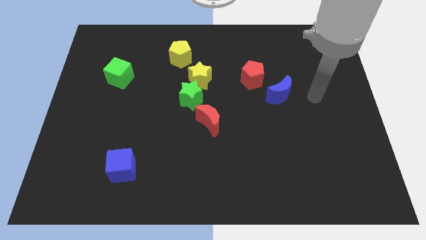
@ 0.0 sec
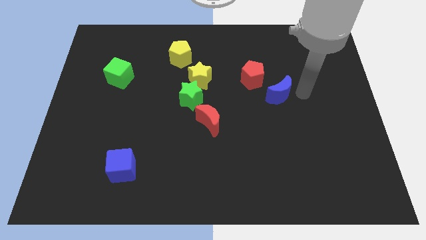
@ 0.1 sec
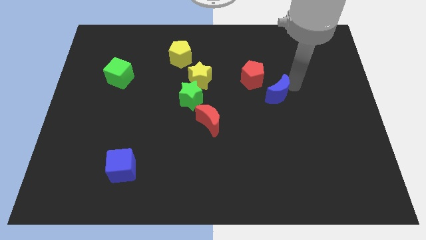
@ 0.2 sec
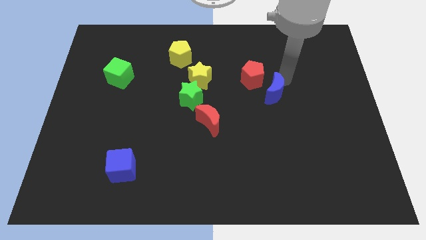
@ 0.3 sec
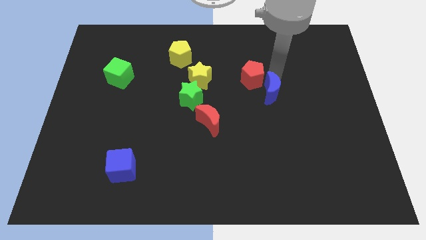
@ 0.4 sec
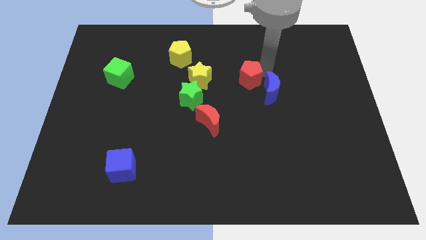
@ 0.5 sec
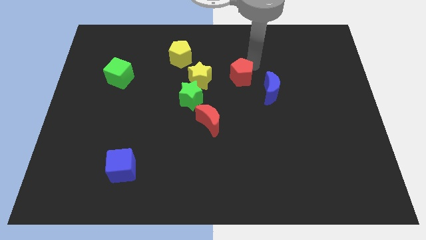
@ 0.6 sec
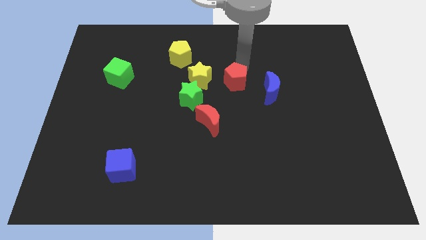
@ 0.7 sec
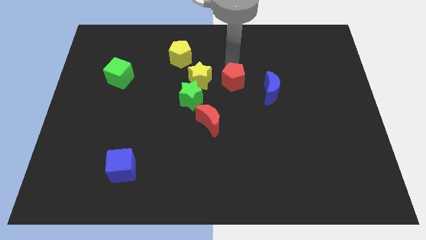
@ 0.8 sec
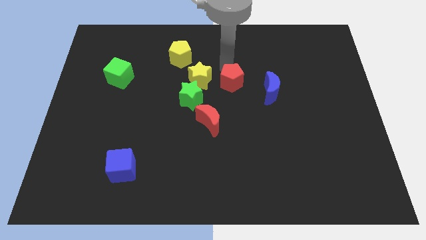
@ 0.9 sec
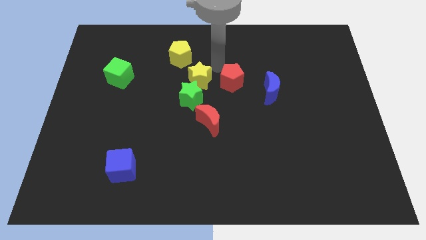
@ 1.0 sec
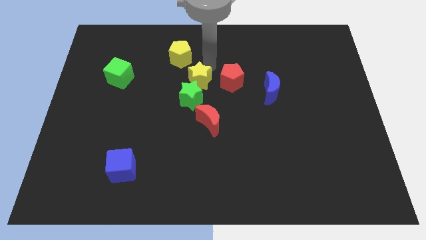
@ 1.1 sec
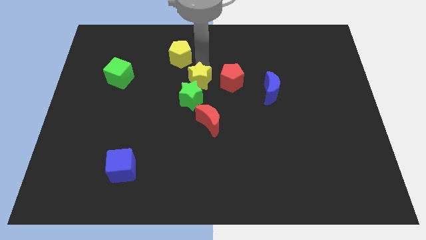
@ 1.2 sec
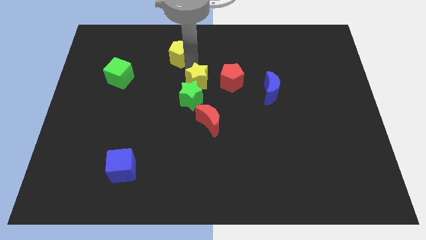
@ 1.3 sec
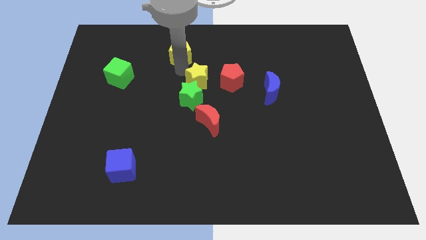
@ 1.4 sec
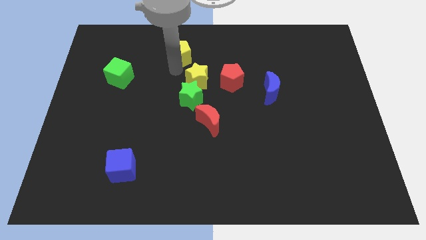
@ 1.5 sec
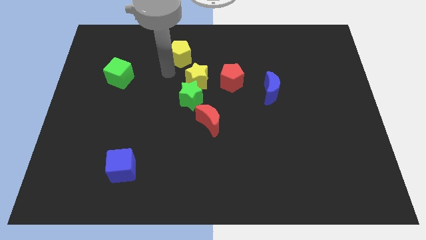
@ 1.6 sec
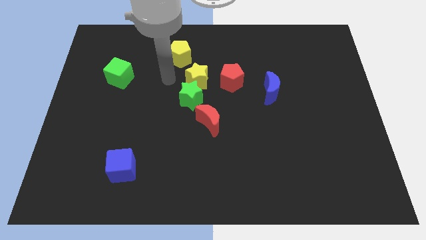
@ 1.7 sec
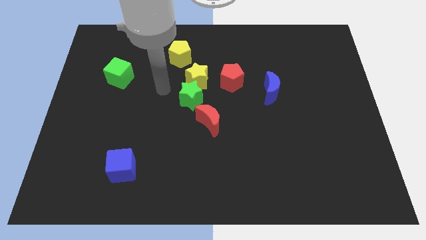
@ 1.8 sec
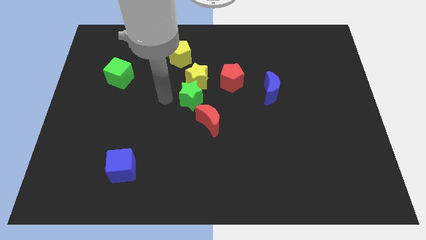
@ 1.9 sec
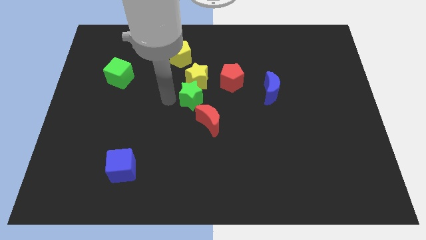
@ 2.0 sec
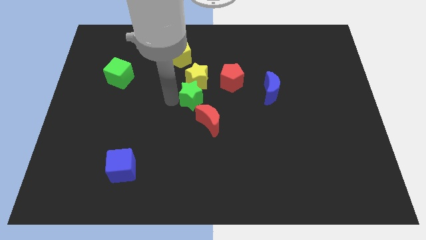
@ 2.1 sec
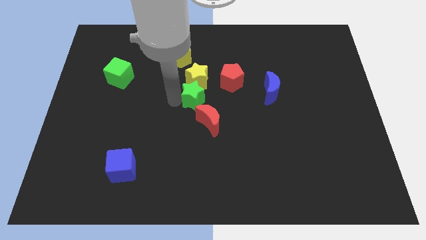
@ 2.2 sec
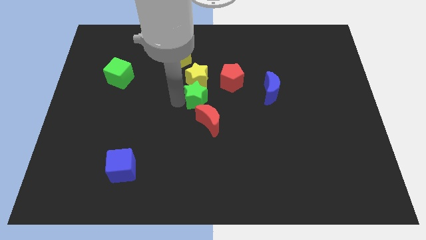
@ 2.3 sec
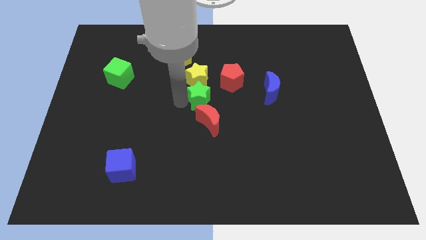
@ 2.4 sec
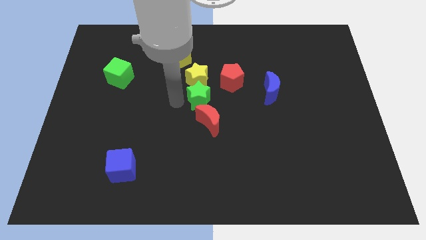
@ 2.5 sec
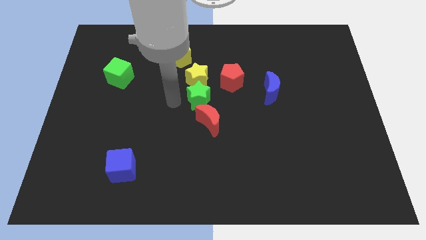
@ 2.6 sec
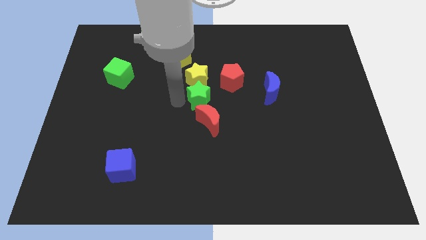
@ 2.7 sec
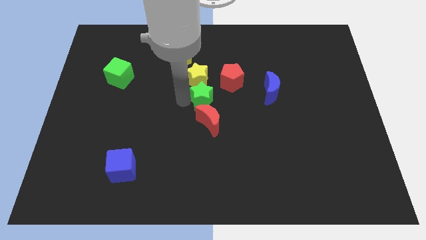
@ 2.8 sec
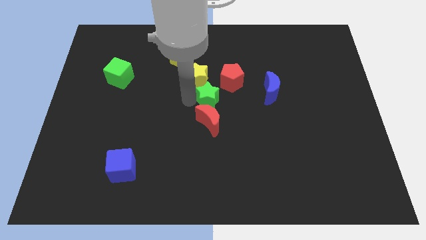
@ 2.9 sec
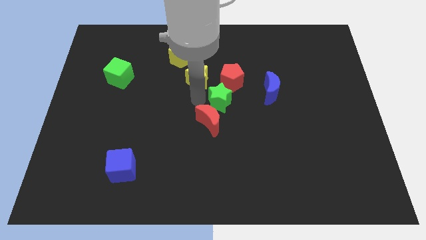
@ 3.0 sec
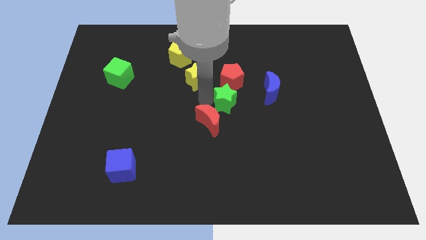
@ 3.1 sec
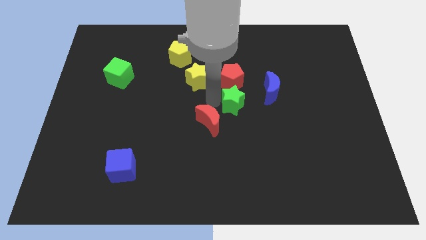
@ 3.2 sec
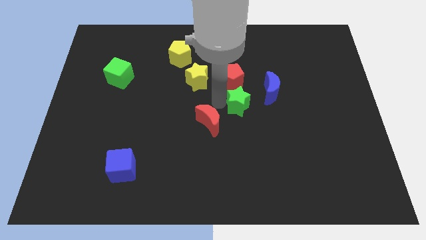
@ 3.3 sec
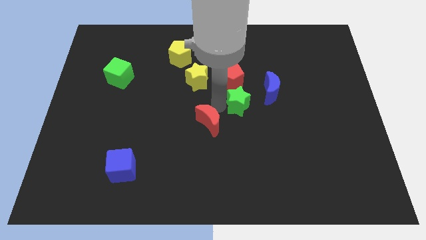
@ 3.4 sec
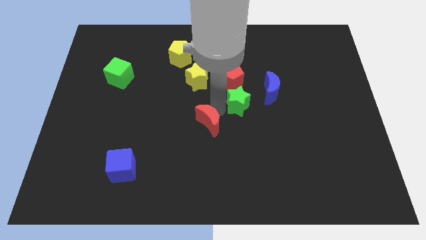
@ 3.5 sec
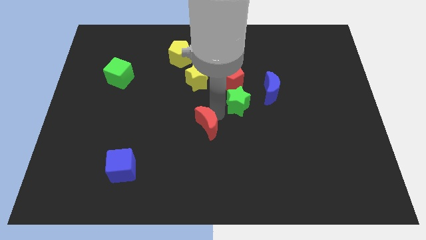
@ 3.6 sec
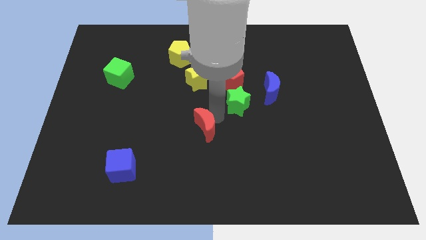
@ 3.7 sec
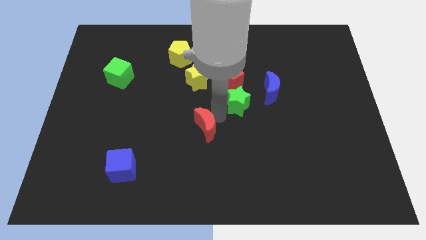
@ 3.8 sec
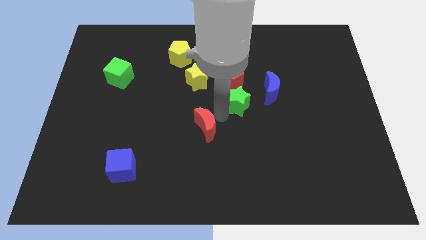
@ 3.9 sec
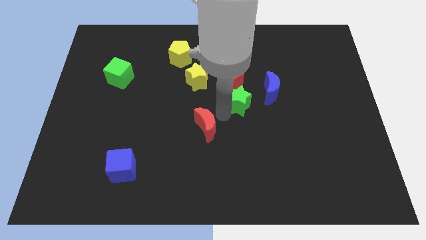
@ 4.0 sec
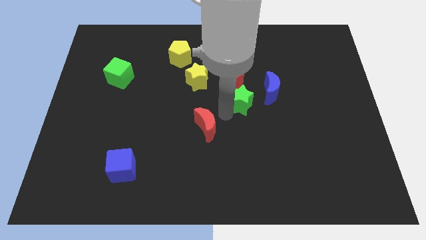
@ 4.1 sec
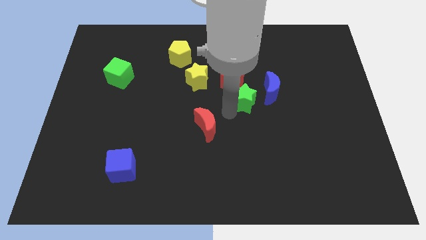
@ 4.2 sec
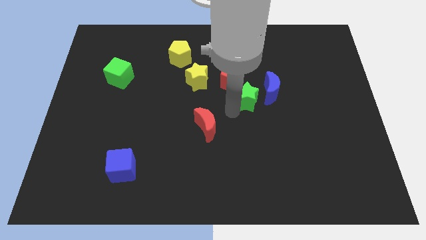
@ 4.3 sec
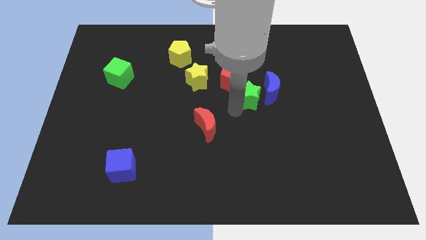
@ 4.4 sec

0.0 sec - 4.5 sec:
push the green star next to the blue moon

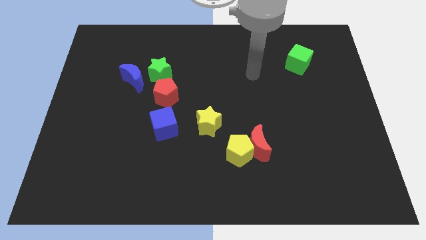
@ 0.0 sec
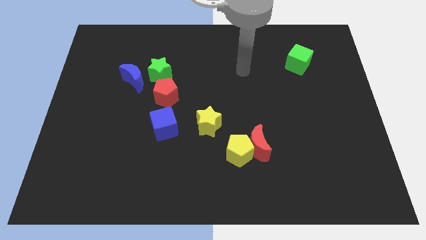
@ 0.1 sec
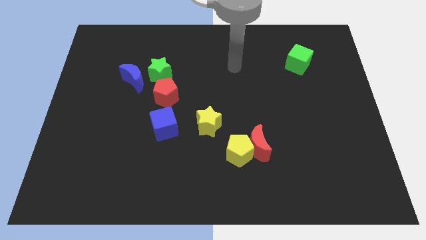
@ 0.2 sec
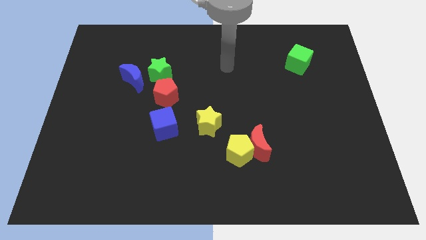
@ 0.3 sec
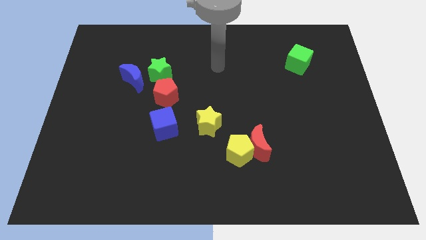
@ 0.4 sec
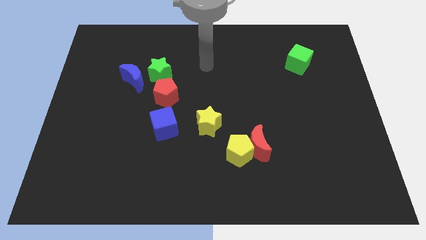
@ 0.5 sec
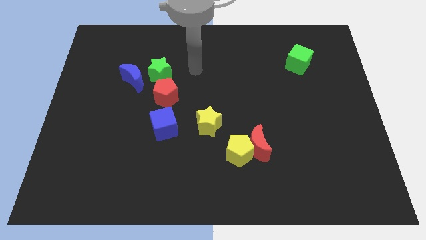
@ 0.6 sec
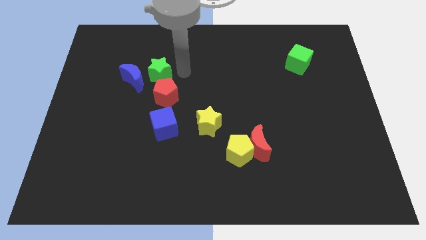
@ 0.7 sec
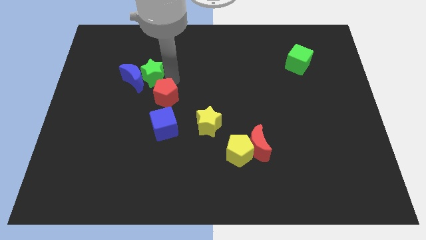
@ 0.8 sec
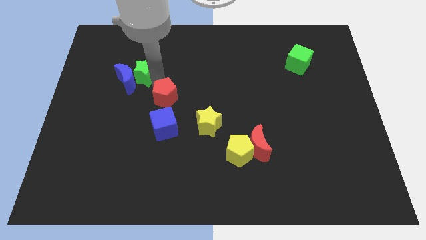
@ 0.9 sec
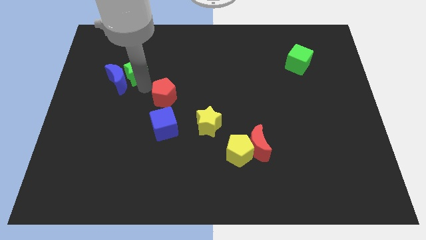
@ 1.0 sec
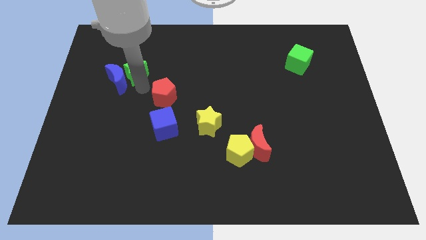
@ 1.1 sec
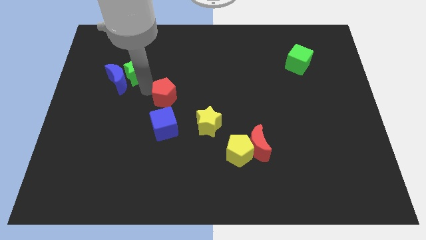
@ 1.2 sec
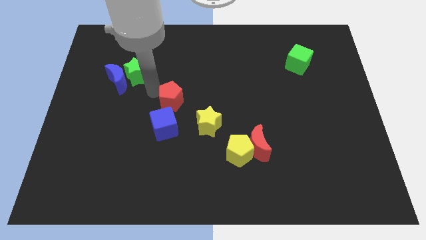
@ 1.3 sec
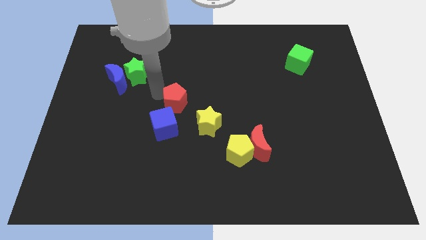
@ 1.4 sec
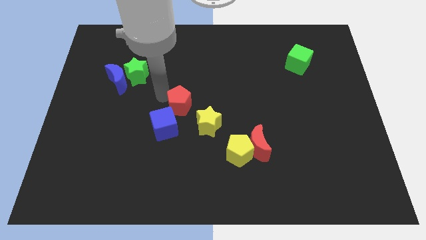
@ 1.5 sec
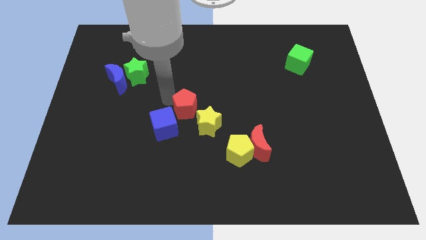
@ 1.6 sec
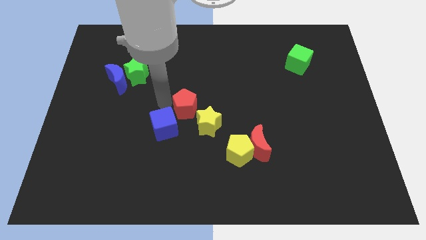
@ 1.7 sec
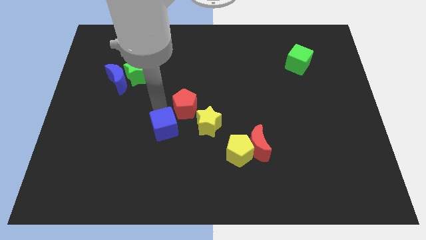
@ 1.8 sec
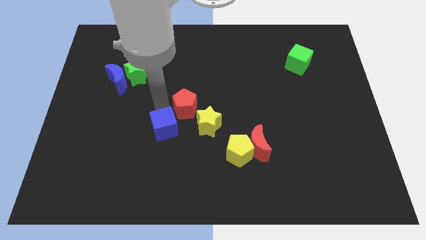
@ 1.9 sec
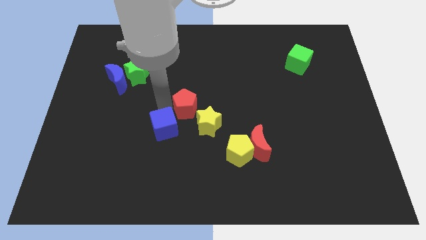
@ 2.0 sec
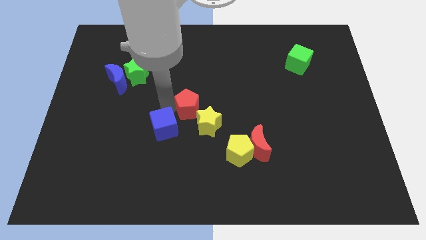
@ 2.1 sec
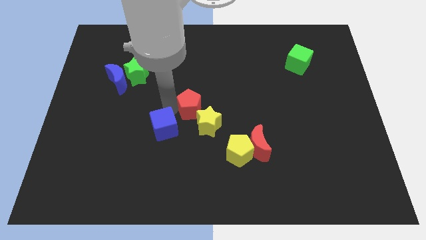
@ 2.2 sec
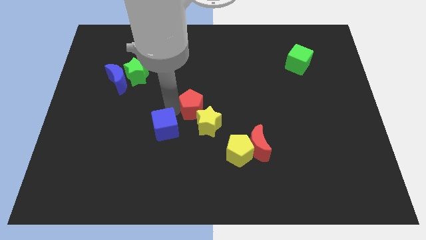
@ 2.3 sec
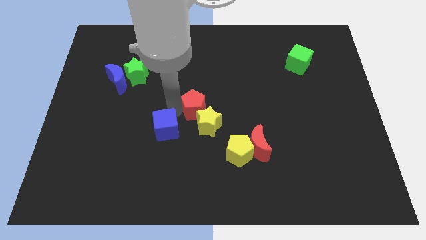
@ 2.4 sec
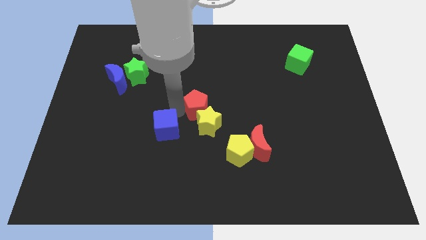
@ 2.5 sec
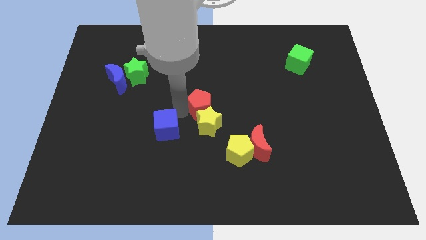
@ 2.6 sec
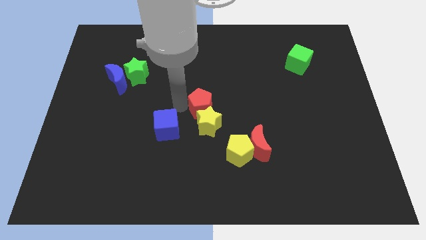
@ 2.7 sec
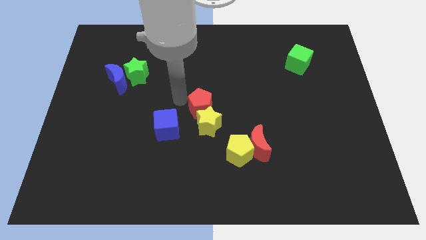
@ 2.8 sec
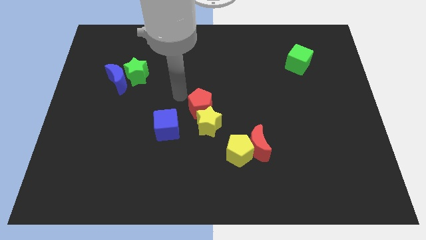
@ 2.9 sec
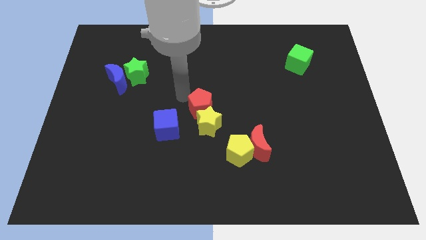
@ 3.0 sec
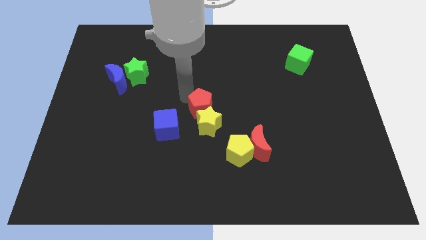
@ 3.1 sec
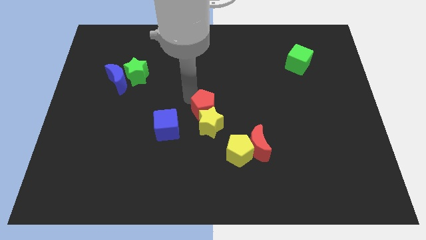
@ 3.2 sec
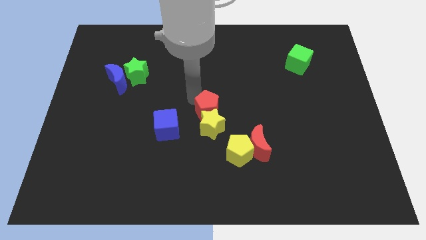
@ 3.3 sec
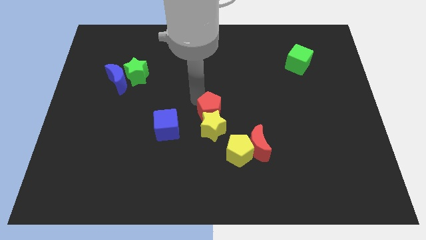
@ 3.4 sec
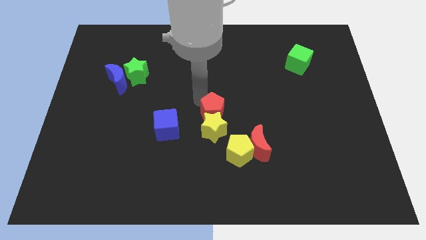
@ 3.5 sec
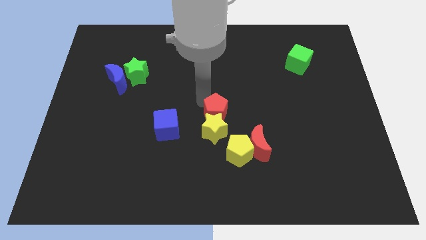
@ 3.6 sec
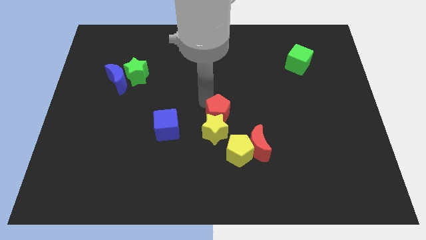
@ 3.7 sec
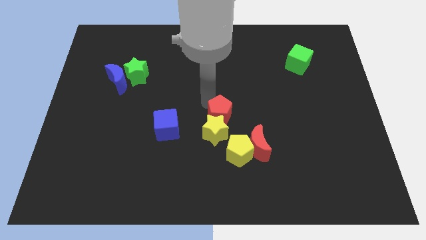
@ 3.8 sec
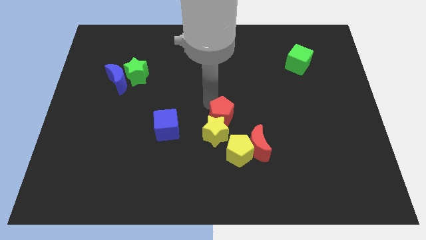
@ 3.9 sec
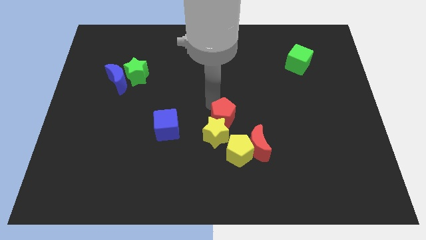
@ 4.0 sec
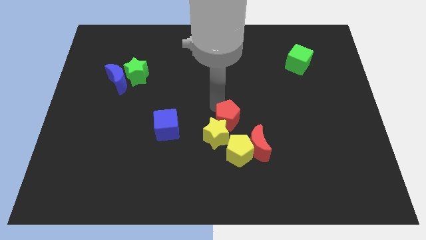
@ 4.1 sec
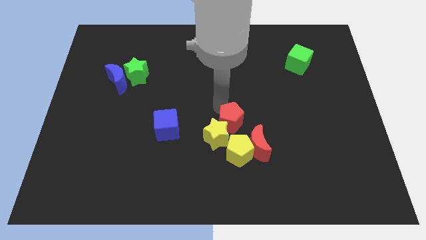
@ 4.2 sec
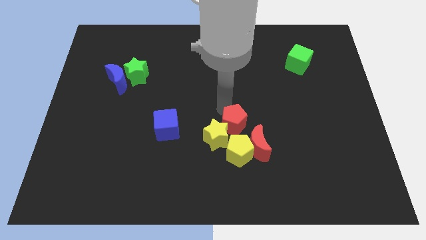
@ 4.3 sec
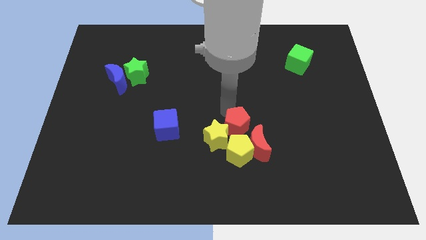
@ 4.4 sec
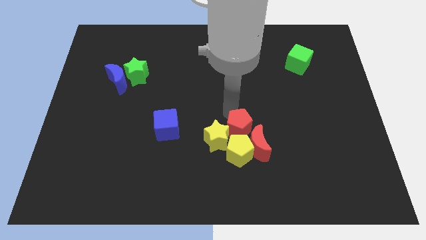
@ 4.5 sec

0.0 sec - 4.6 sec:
move the red pentagon next to the red moon
